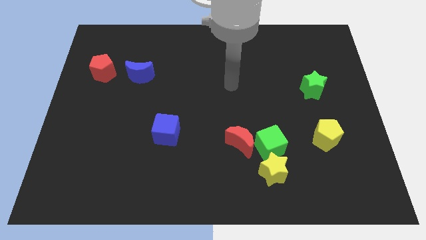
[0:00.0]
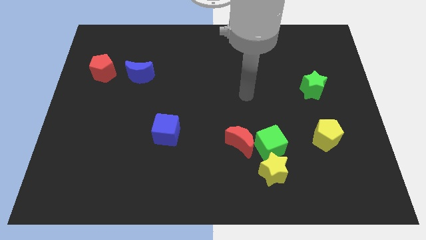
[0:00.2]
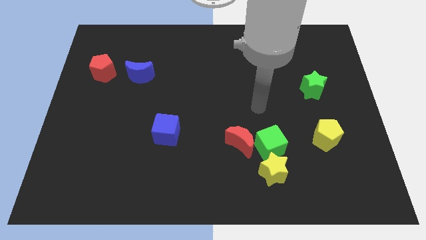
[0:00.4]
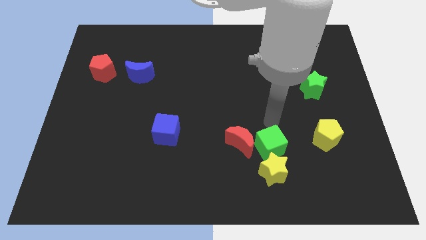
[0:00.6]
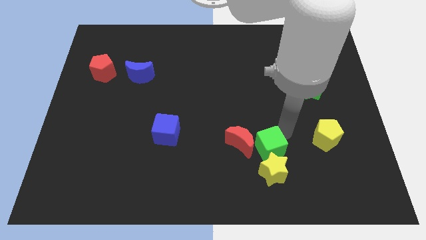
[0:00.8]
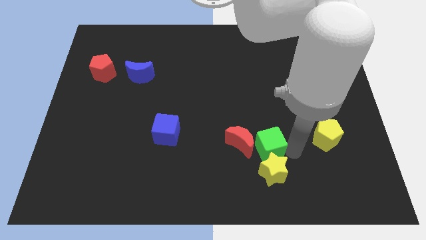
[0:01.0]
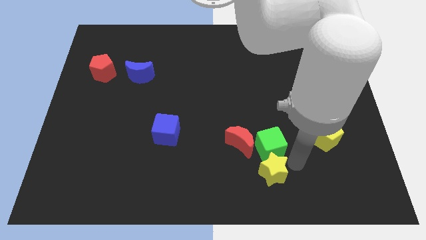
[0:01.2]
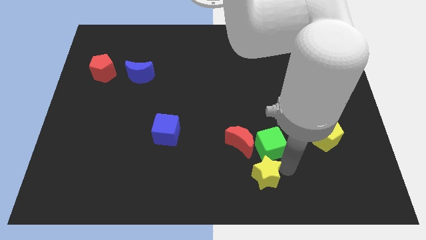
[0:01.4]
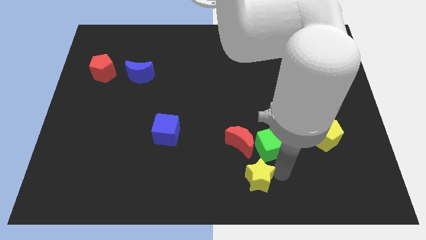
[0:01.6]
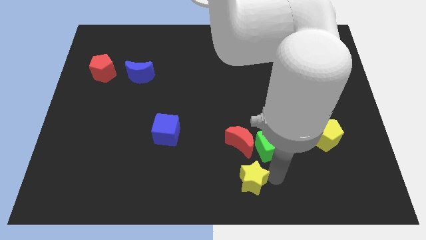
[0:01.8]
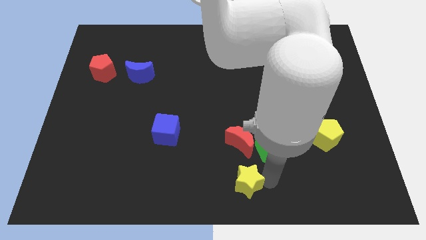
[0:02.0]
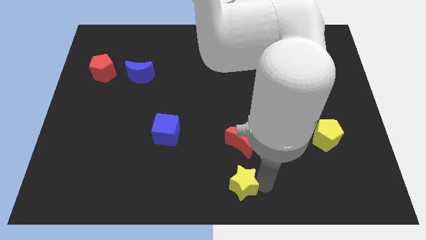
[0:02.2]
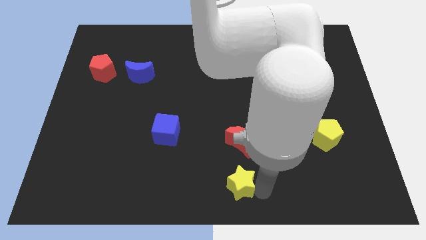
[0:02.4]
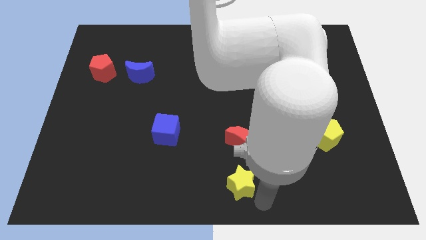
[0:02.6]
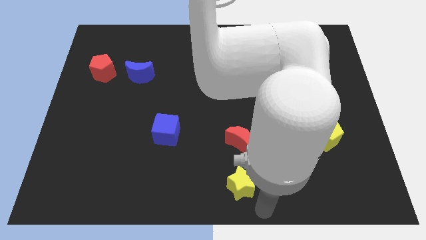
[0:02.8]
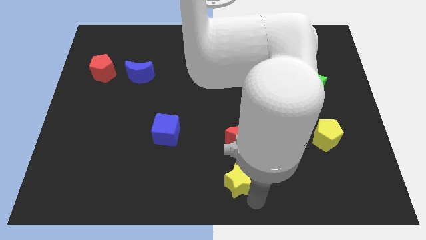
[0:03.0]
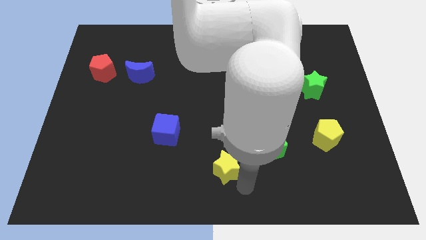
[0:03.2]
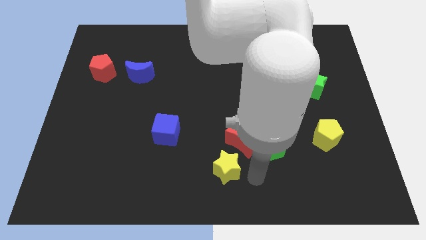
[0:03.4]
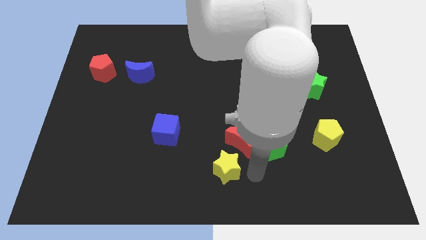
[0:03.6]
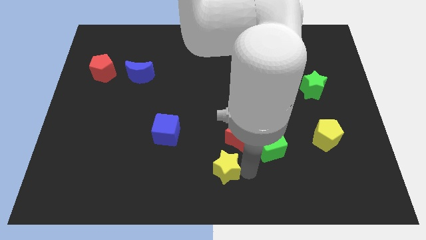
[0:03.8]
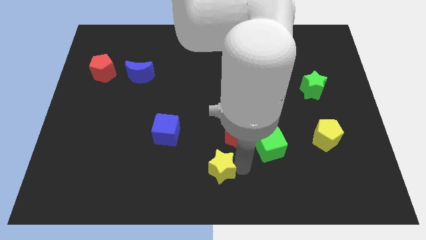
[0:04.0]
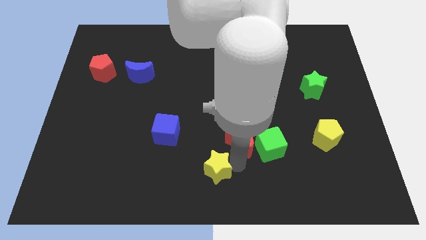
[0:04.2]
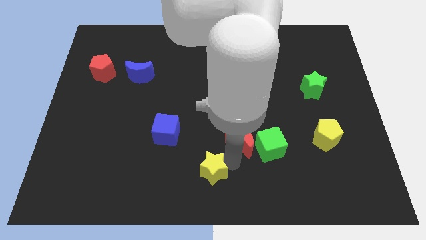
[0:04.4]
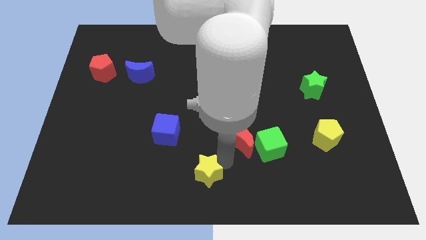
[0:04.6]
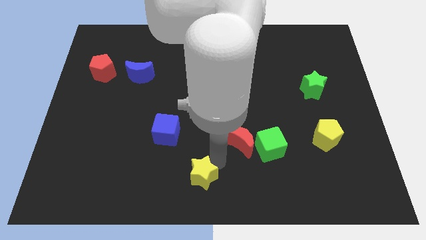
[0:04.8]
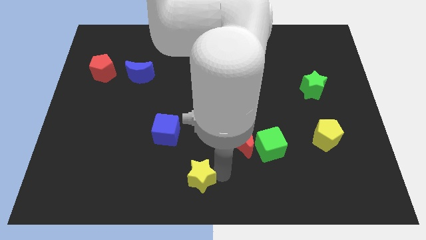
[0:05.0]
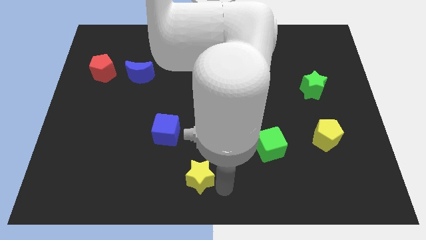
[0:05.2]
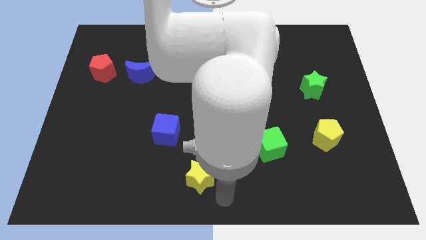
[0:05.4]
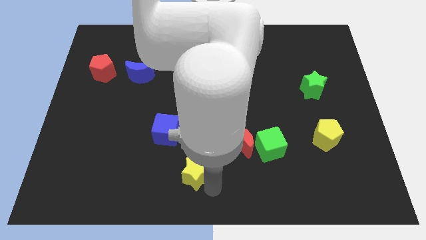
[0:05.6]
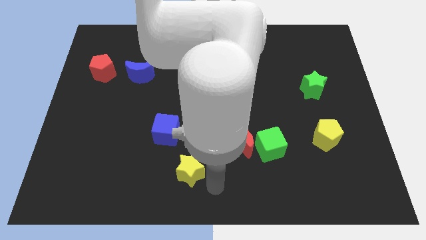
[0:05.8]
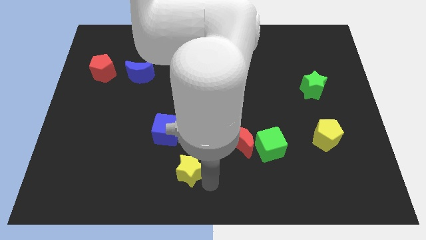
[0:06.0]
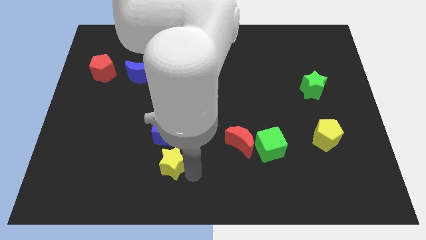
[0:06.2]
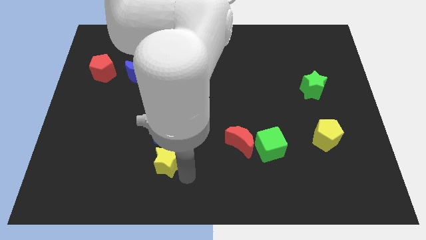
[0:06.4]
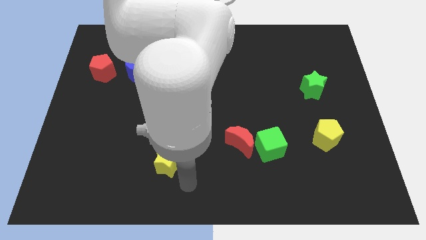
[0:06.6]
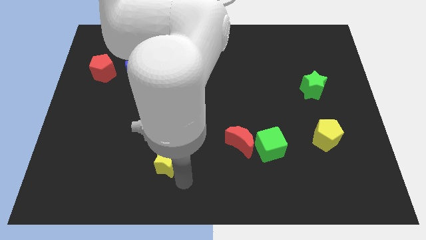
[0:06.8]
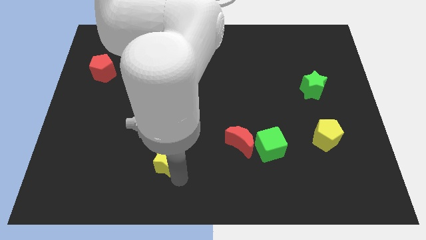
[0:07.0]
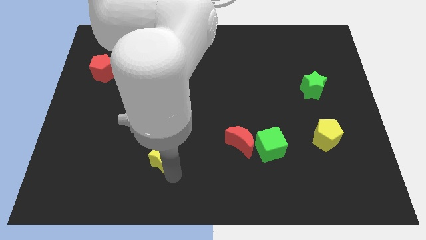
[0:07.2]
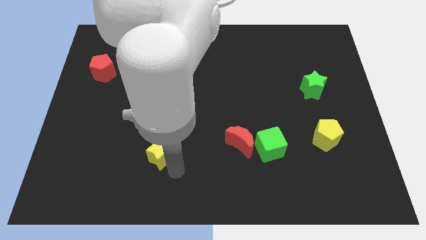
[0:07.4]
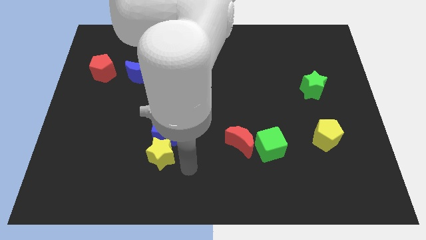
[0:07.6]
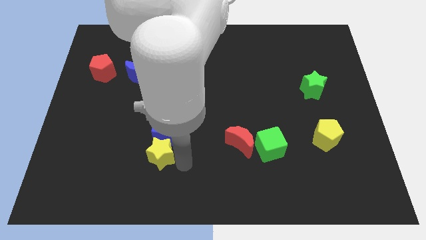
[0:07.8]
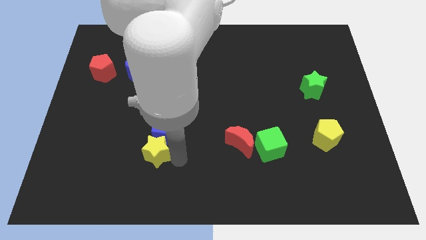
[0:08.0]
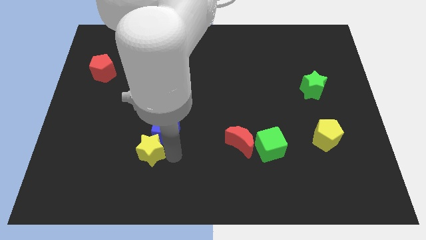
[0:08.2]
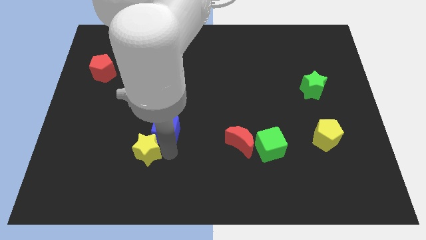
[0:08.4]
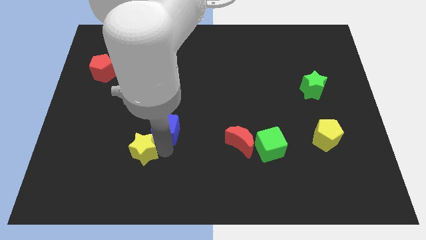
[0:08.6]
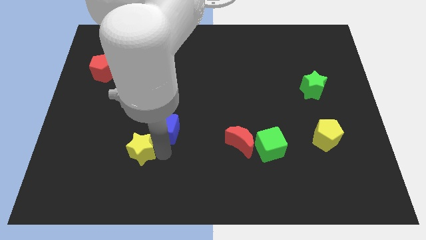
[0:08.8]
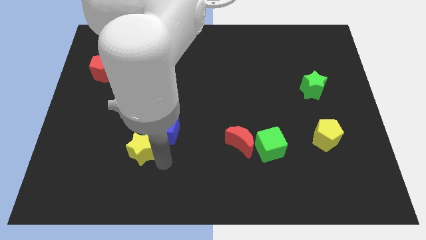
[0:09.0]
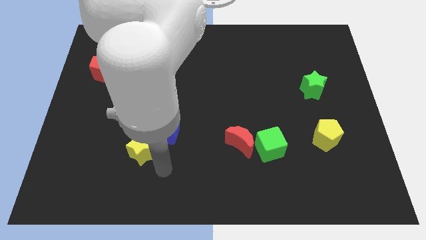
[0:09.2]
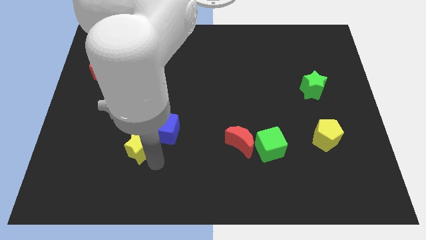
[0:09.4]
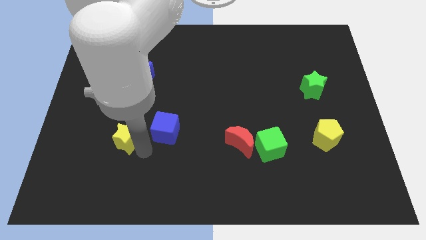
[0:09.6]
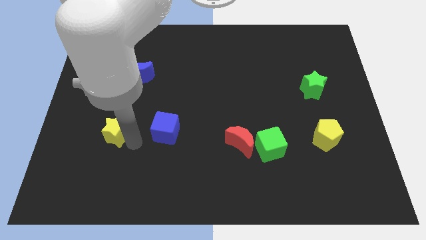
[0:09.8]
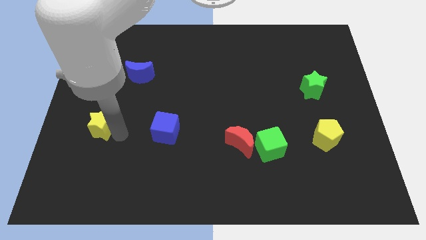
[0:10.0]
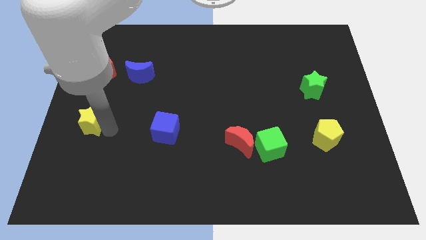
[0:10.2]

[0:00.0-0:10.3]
put the yellow star to the center left
